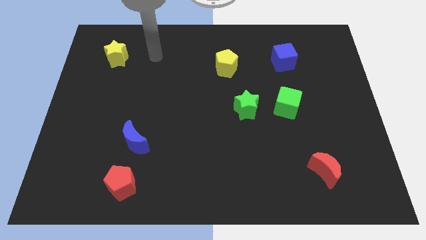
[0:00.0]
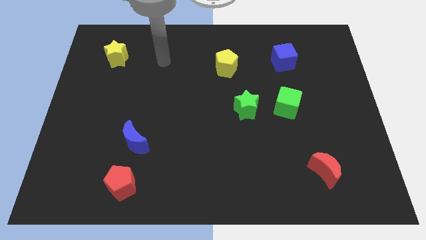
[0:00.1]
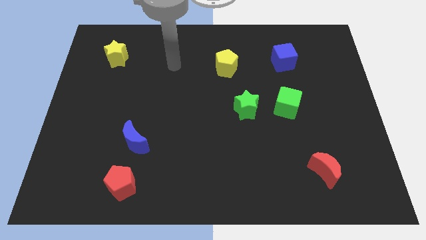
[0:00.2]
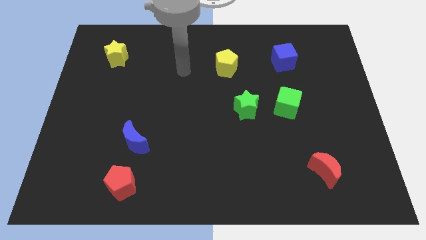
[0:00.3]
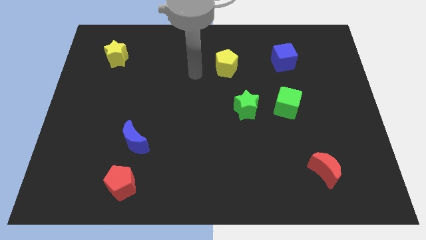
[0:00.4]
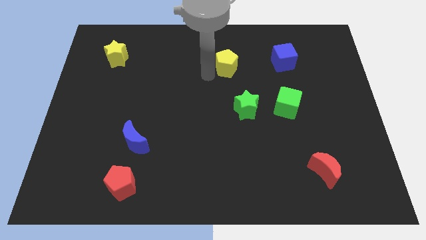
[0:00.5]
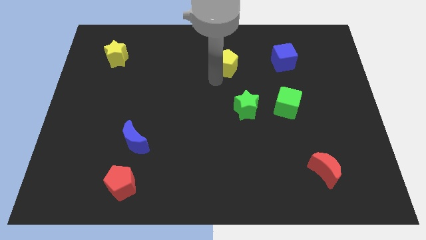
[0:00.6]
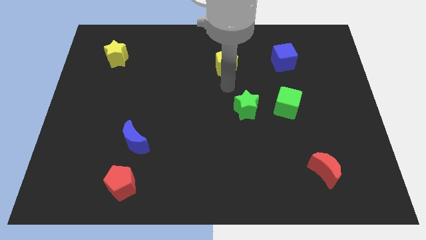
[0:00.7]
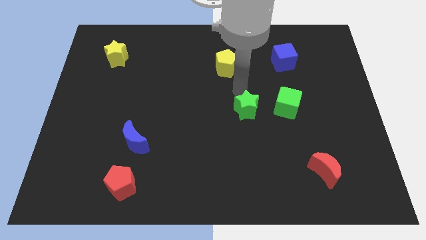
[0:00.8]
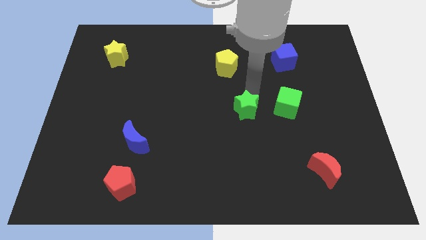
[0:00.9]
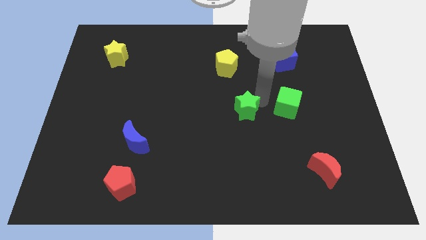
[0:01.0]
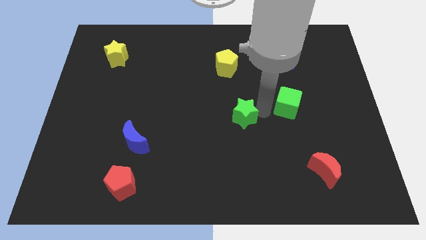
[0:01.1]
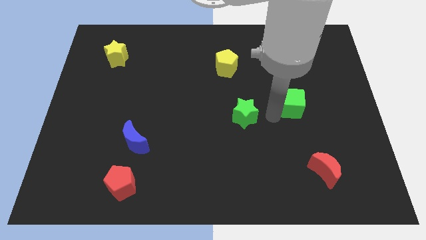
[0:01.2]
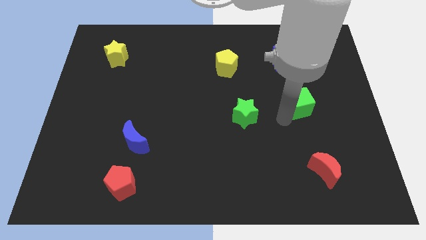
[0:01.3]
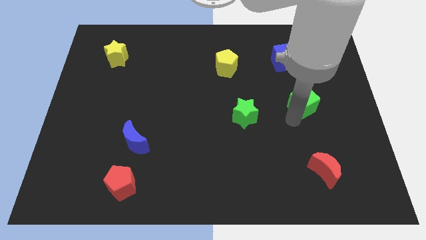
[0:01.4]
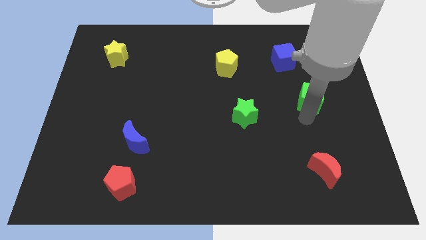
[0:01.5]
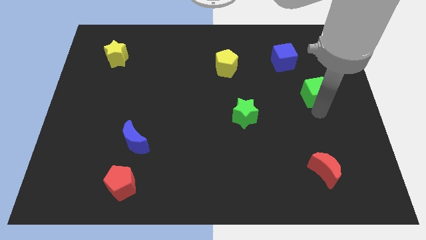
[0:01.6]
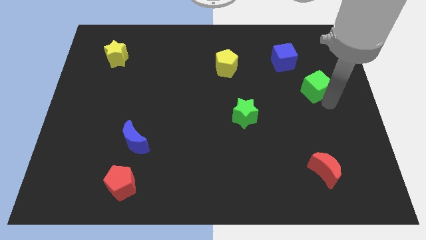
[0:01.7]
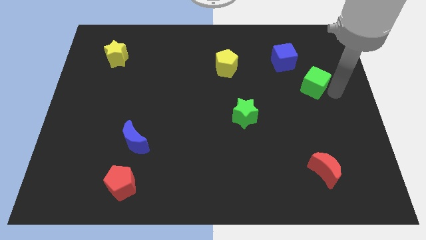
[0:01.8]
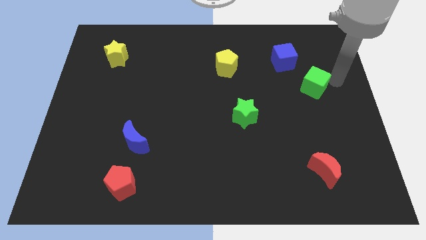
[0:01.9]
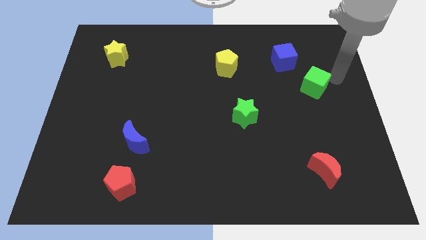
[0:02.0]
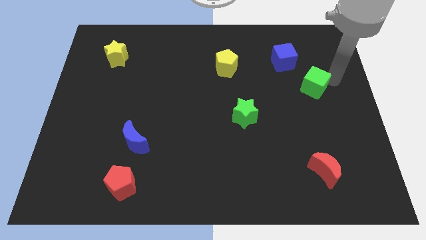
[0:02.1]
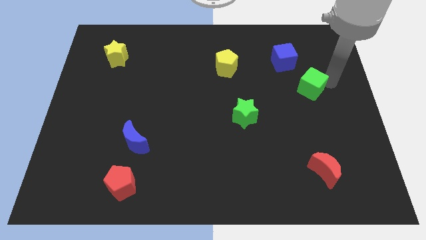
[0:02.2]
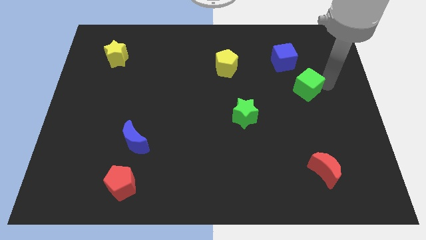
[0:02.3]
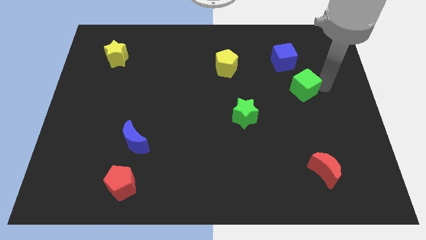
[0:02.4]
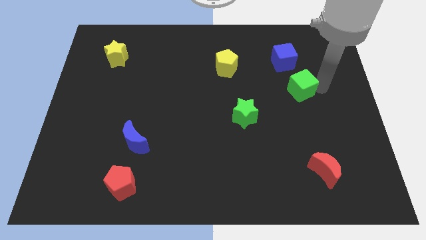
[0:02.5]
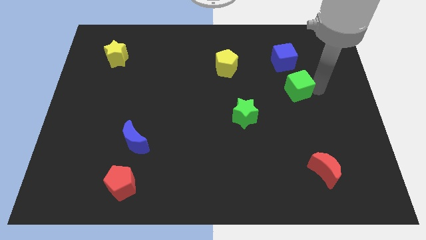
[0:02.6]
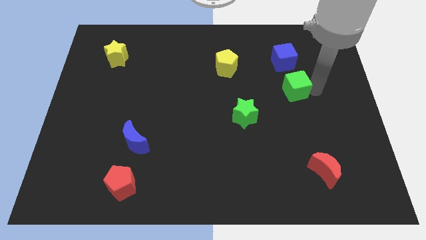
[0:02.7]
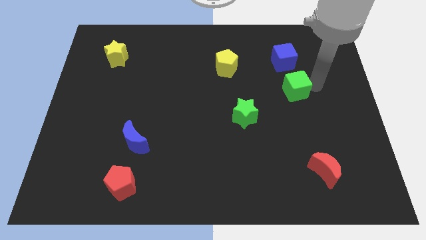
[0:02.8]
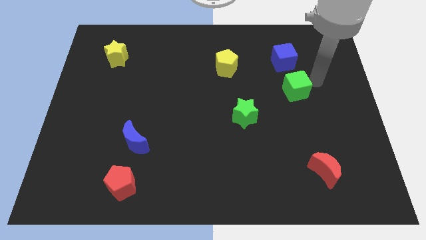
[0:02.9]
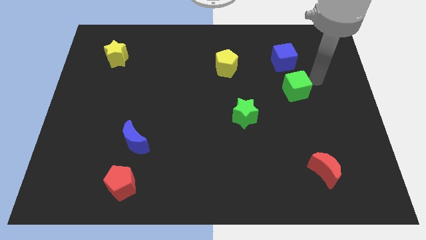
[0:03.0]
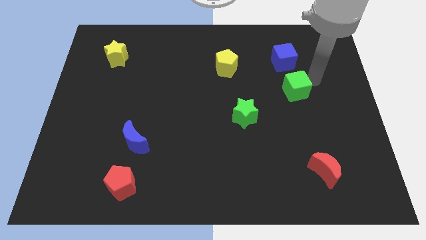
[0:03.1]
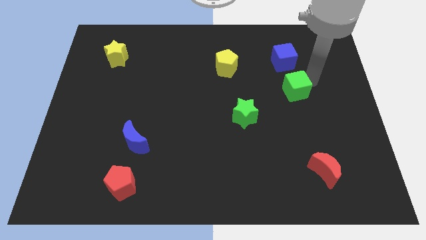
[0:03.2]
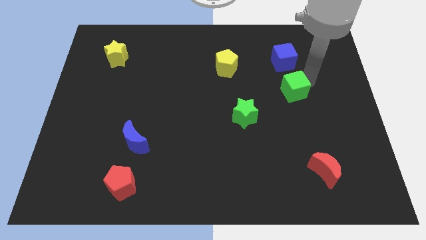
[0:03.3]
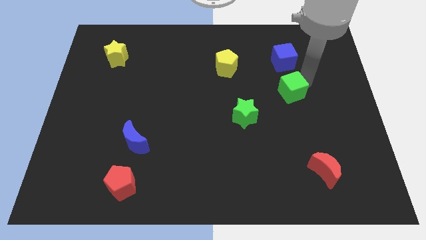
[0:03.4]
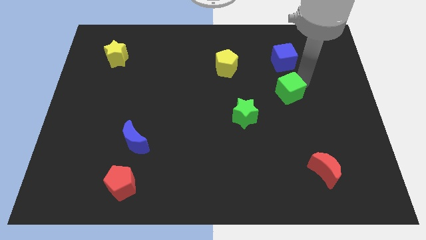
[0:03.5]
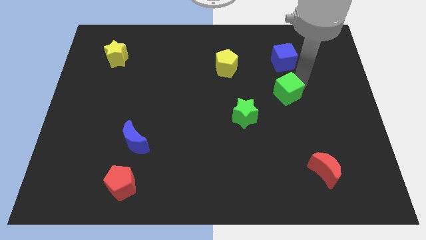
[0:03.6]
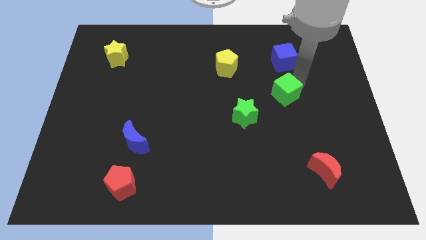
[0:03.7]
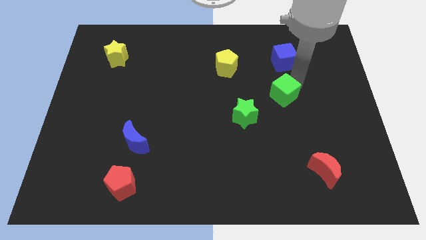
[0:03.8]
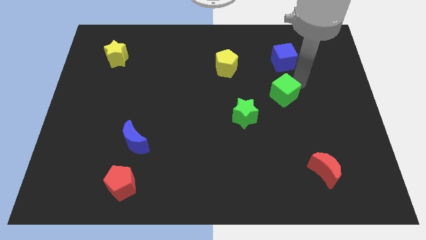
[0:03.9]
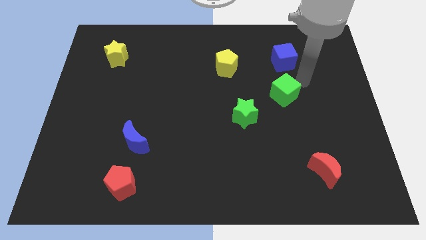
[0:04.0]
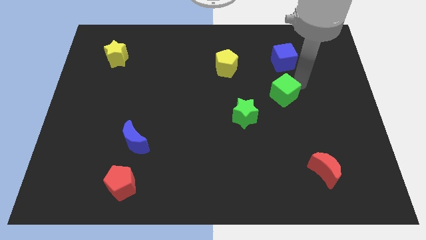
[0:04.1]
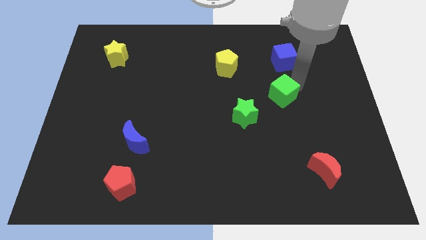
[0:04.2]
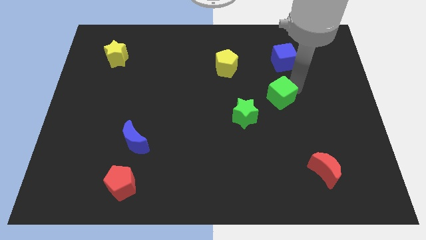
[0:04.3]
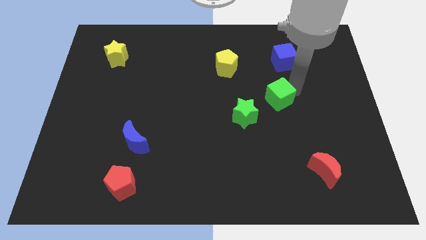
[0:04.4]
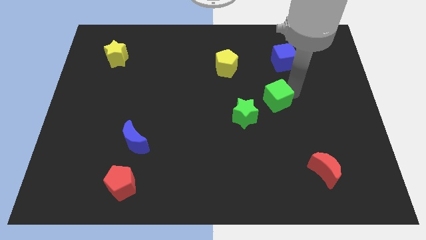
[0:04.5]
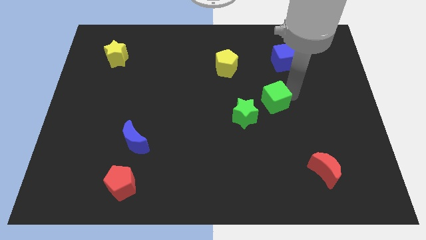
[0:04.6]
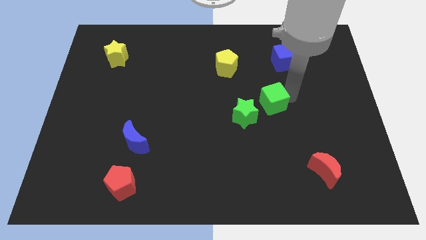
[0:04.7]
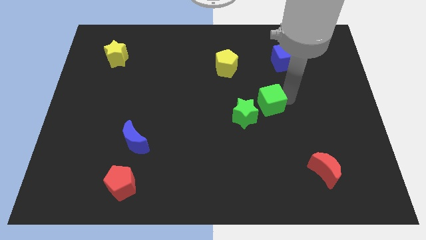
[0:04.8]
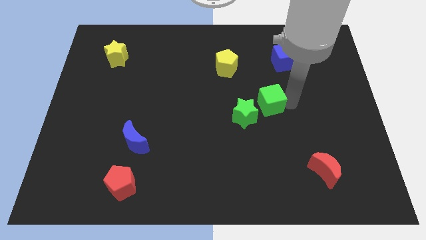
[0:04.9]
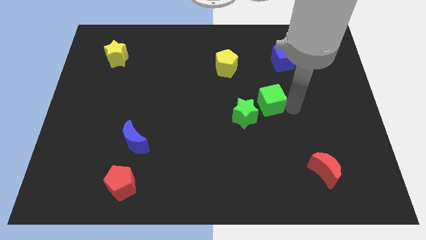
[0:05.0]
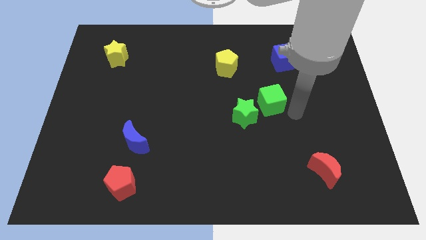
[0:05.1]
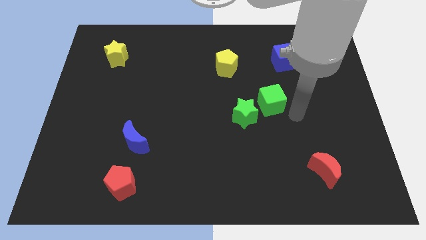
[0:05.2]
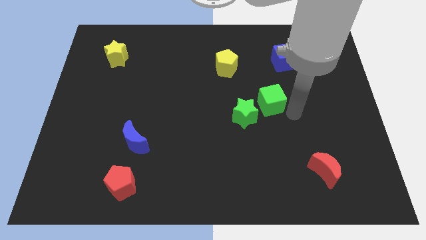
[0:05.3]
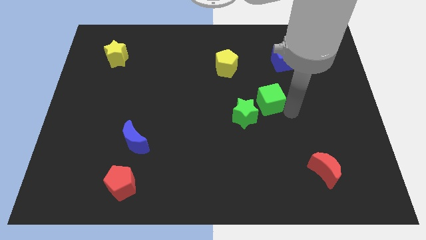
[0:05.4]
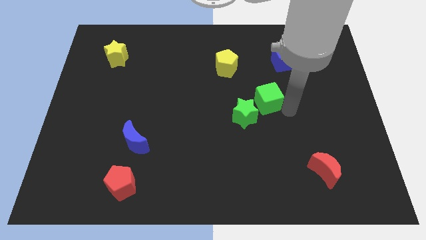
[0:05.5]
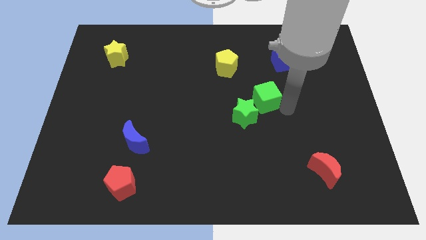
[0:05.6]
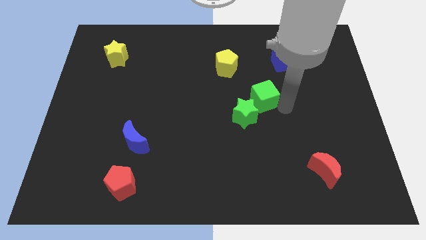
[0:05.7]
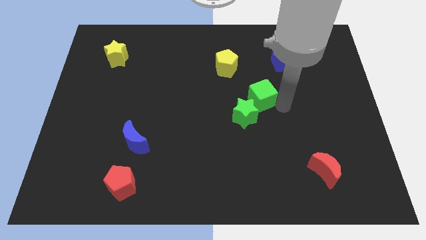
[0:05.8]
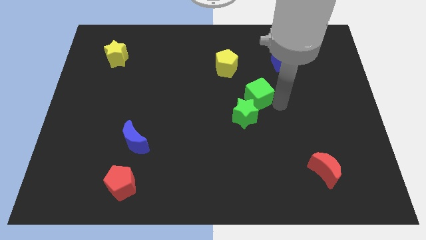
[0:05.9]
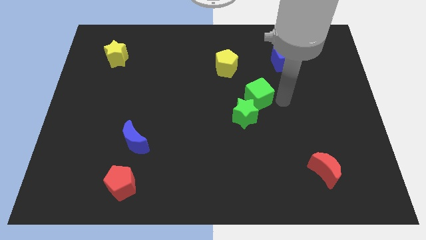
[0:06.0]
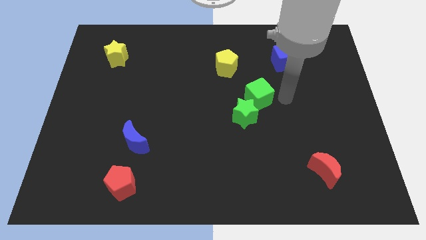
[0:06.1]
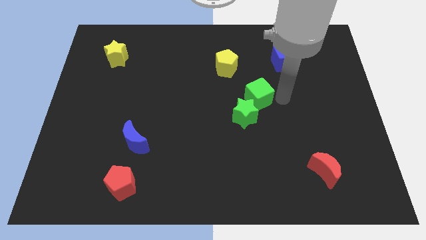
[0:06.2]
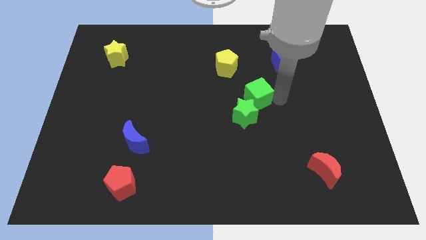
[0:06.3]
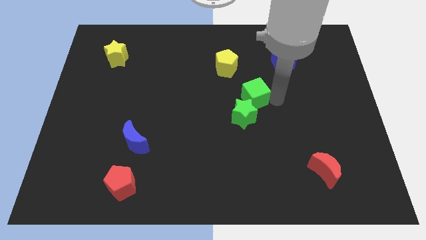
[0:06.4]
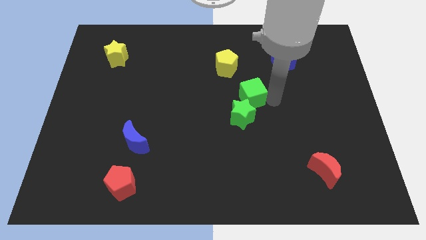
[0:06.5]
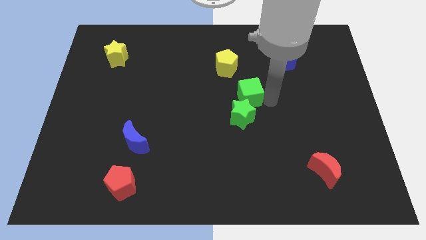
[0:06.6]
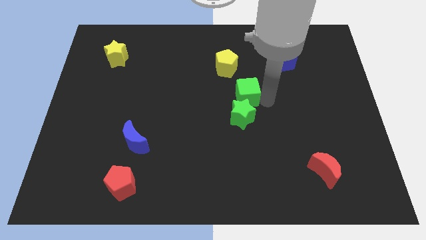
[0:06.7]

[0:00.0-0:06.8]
push the green cube to the bottom side of the yellow pentagon

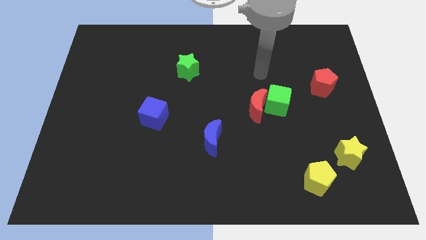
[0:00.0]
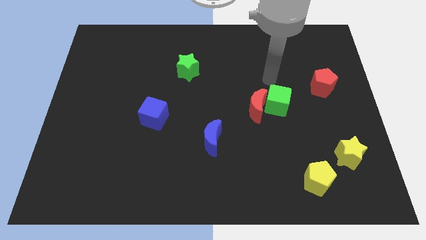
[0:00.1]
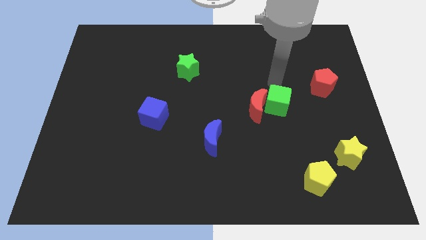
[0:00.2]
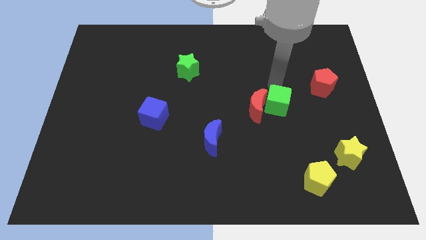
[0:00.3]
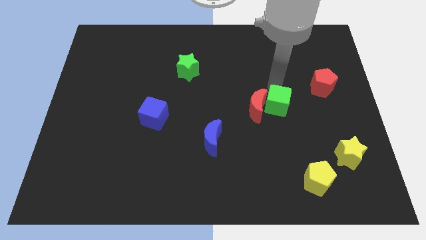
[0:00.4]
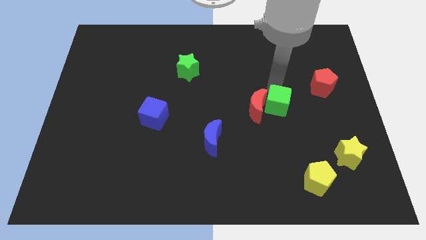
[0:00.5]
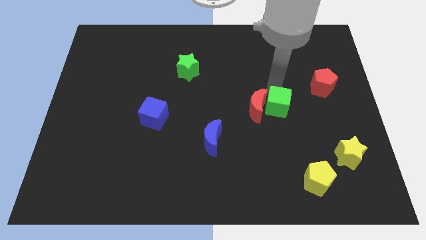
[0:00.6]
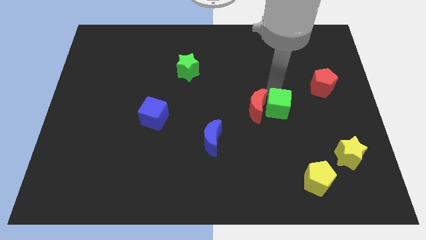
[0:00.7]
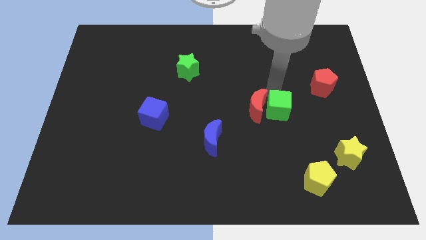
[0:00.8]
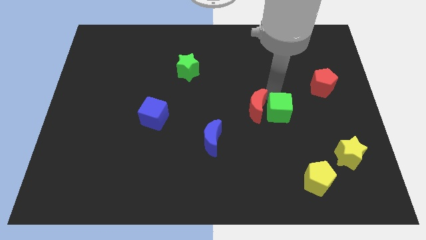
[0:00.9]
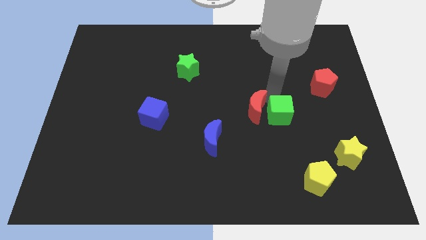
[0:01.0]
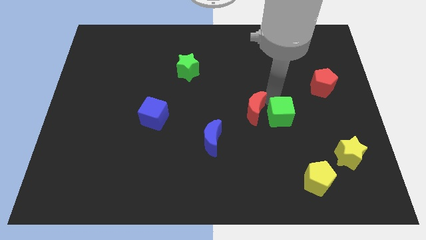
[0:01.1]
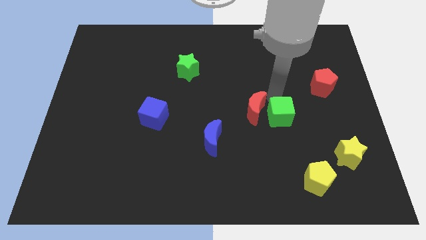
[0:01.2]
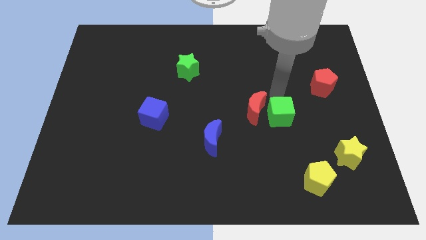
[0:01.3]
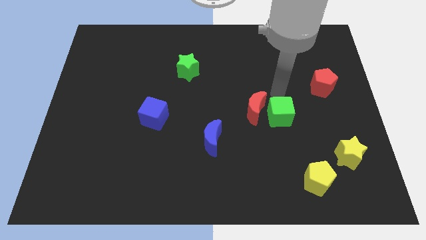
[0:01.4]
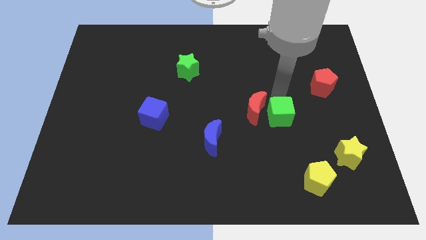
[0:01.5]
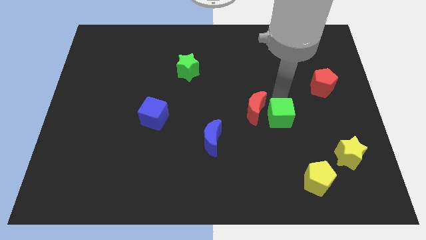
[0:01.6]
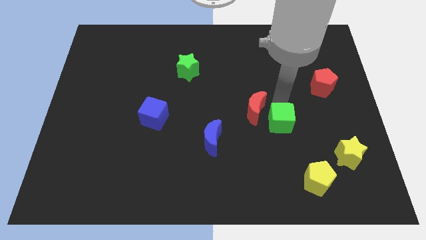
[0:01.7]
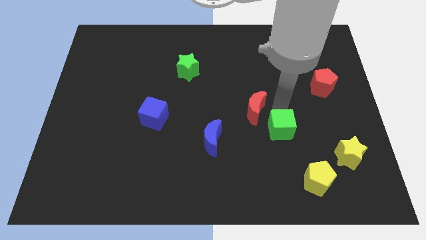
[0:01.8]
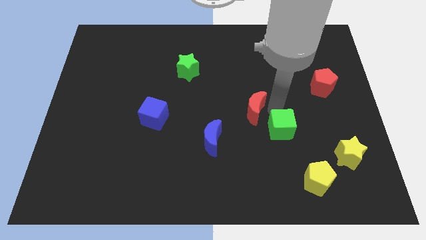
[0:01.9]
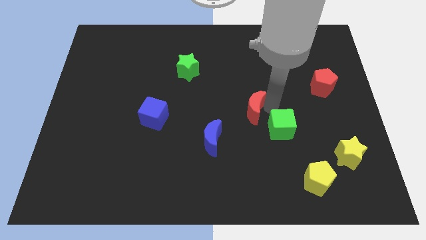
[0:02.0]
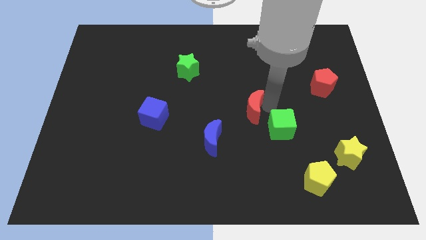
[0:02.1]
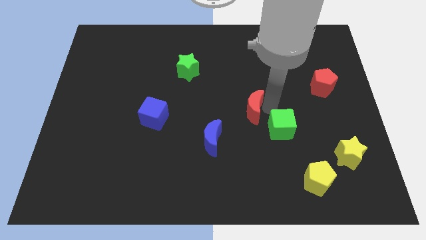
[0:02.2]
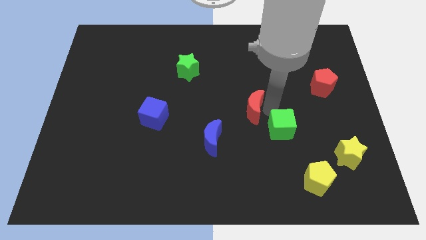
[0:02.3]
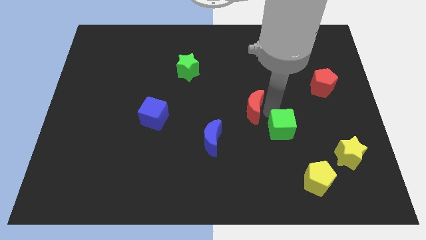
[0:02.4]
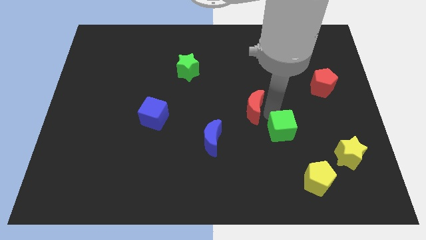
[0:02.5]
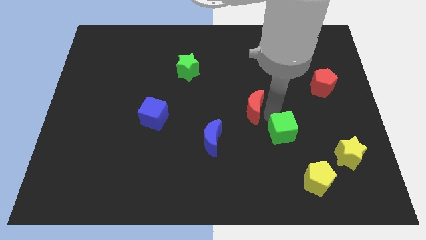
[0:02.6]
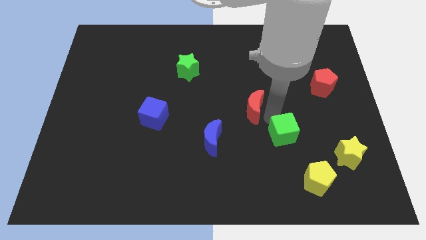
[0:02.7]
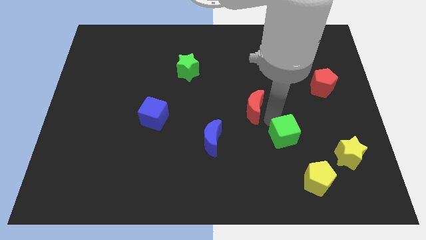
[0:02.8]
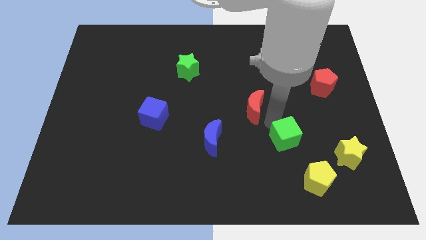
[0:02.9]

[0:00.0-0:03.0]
put the green cube to the left of the yellow star
